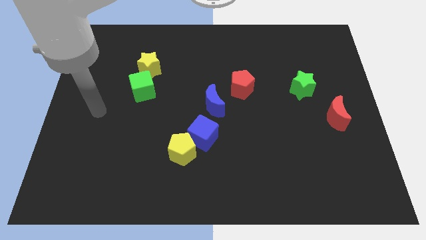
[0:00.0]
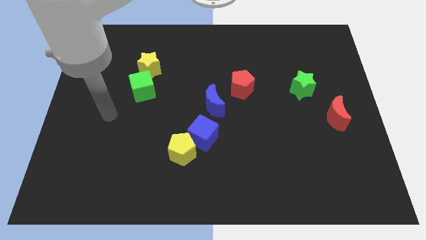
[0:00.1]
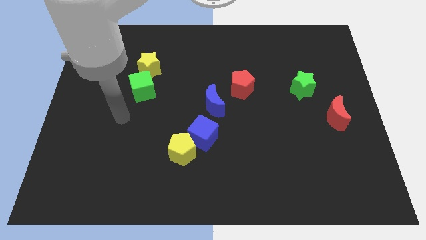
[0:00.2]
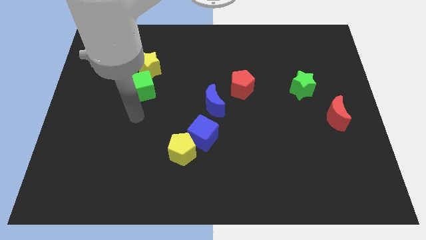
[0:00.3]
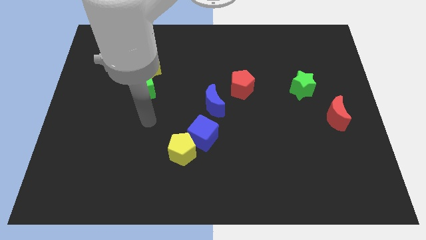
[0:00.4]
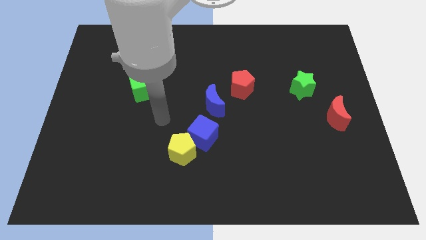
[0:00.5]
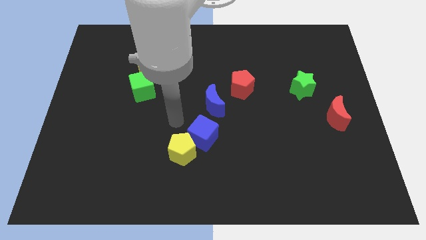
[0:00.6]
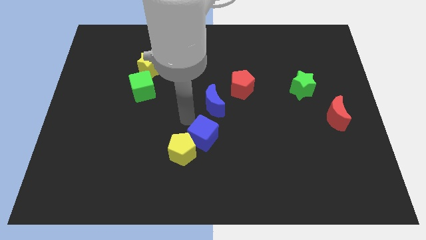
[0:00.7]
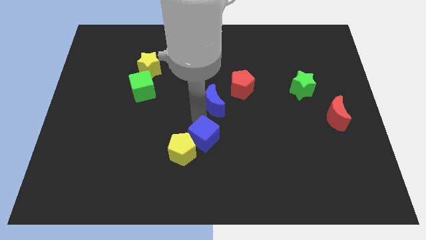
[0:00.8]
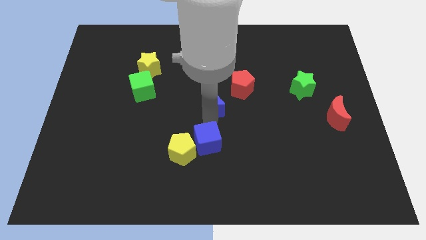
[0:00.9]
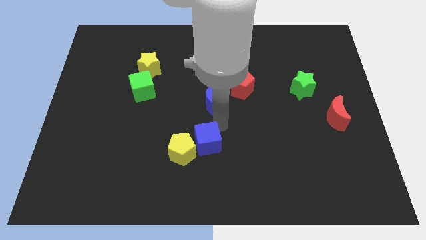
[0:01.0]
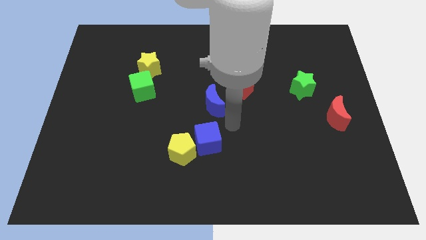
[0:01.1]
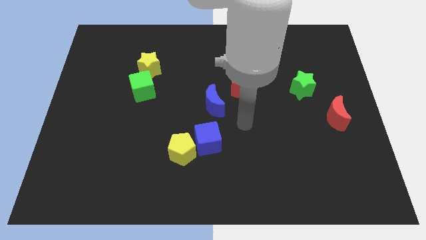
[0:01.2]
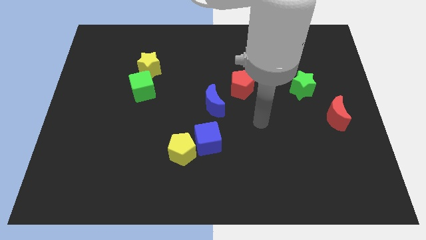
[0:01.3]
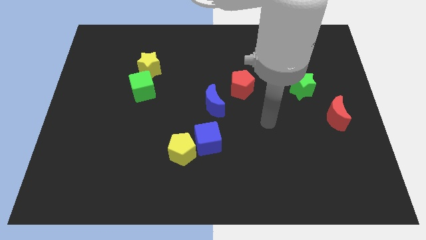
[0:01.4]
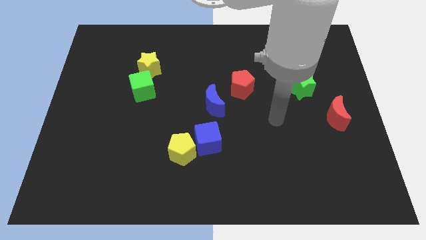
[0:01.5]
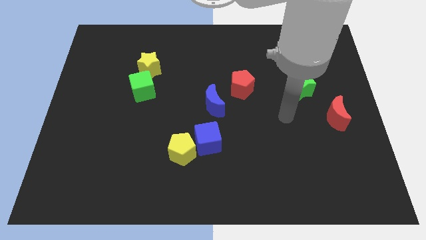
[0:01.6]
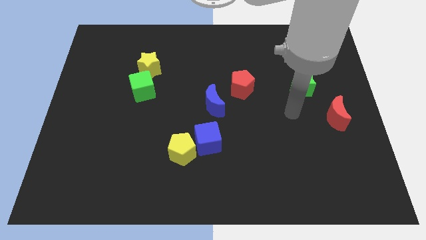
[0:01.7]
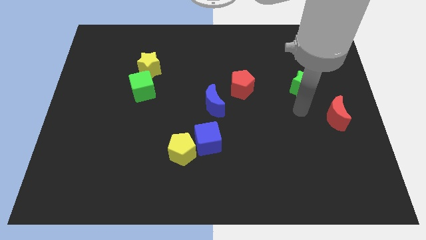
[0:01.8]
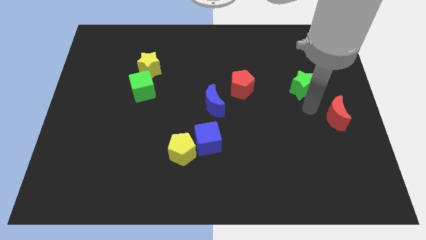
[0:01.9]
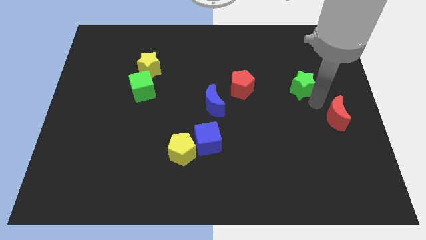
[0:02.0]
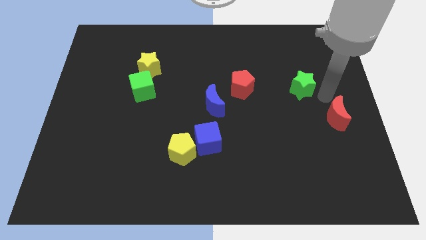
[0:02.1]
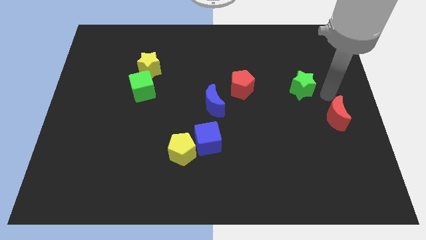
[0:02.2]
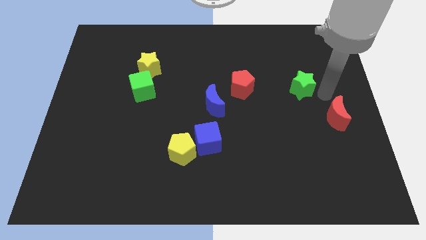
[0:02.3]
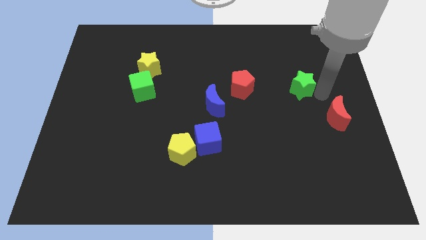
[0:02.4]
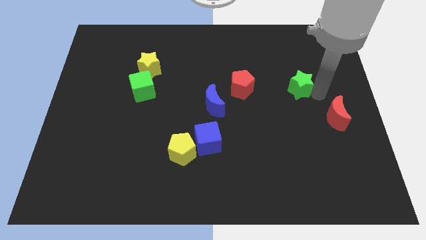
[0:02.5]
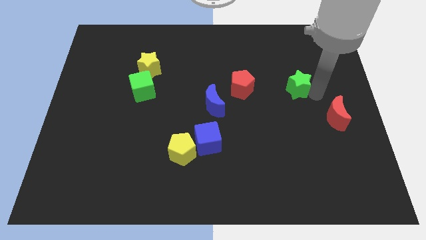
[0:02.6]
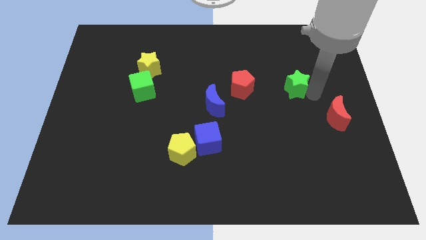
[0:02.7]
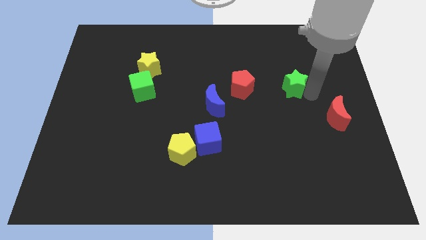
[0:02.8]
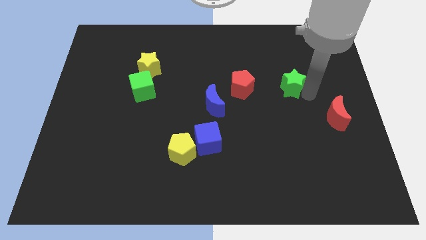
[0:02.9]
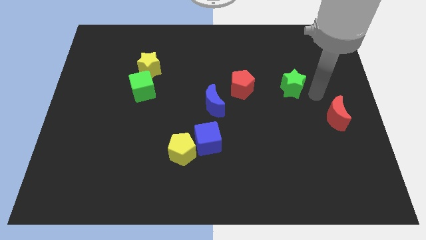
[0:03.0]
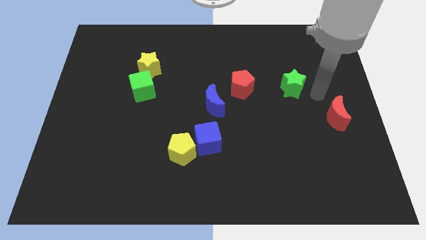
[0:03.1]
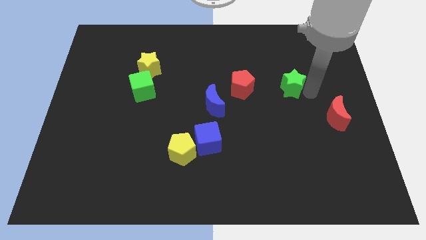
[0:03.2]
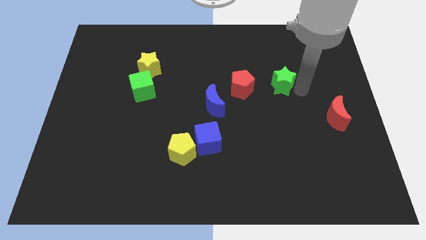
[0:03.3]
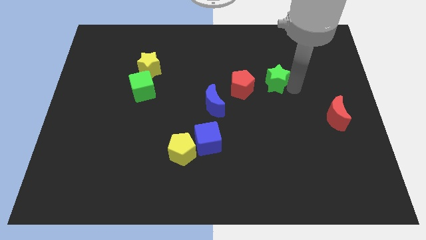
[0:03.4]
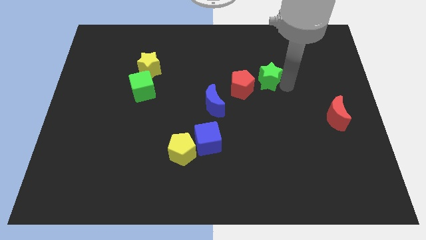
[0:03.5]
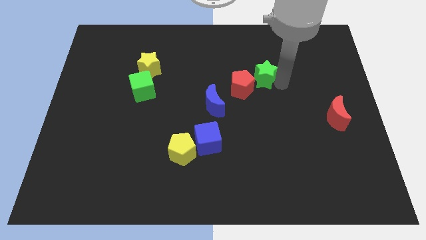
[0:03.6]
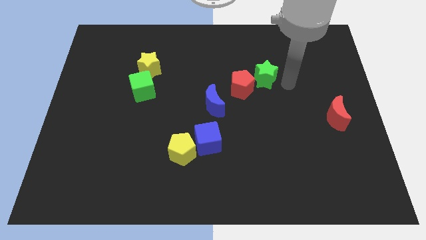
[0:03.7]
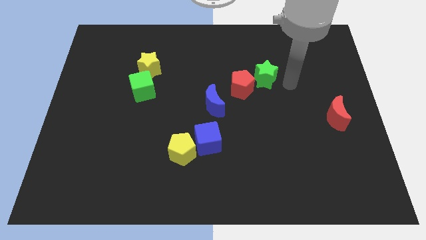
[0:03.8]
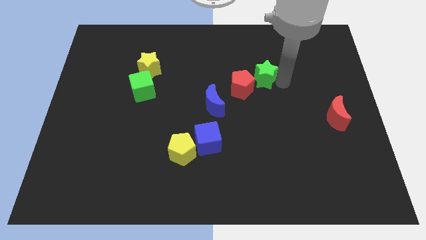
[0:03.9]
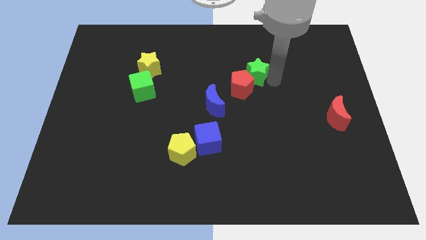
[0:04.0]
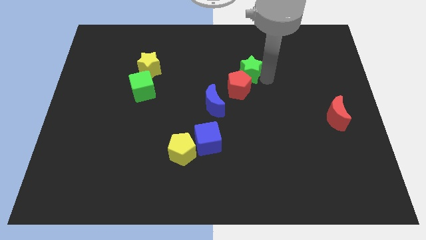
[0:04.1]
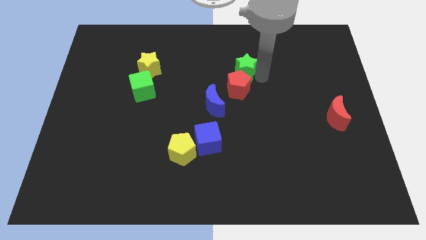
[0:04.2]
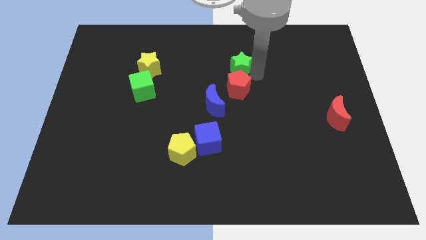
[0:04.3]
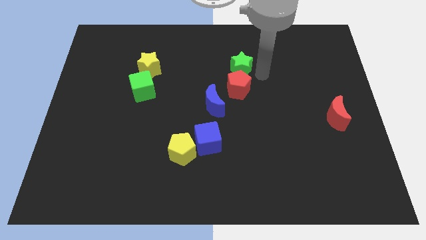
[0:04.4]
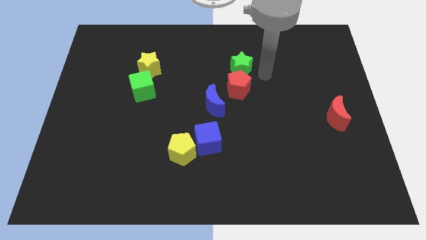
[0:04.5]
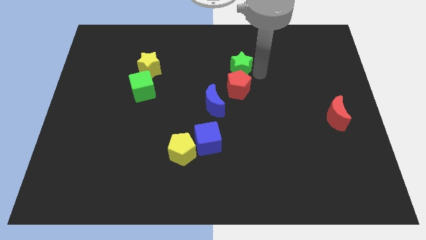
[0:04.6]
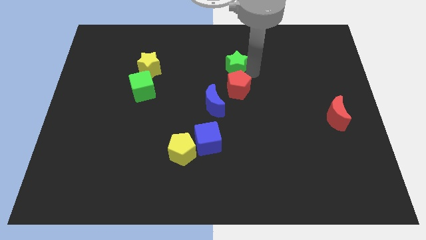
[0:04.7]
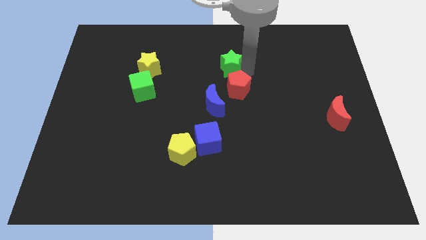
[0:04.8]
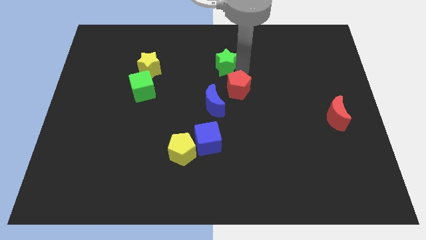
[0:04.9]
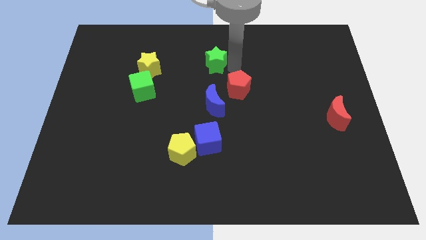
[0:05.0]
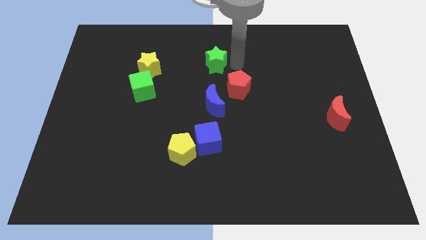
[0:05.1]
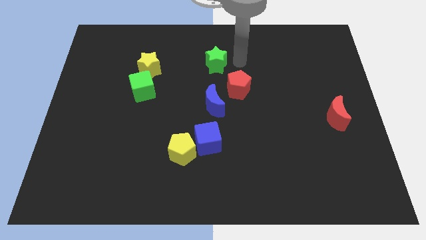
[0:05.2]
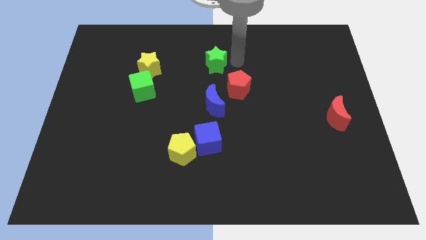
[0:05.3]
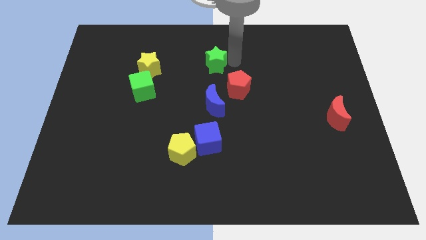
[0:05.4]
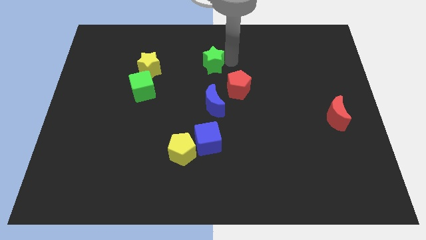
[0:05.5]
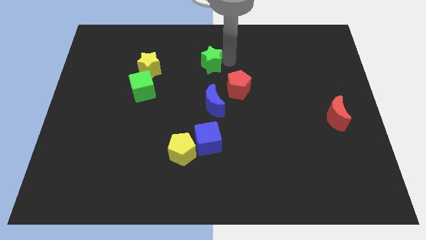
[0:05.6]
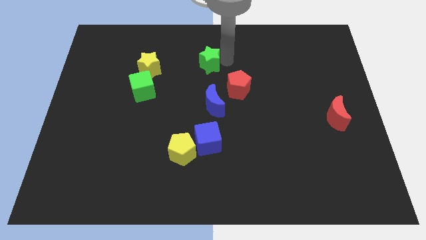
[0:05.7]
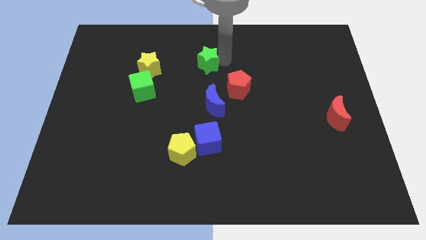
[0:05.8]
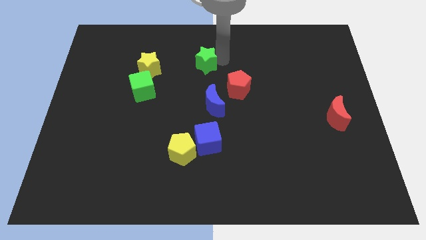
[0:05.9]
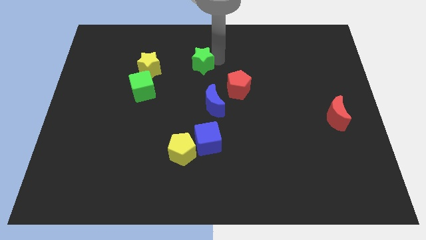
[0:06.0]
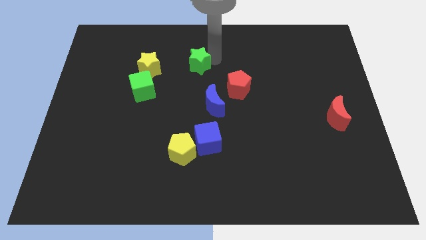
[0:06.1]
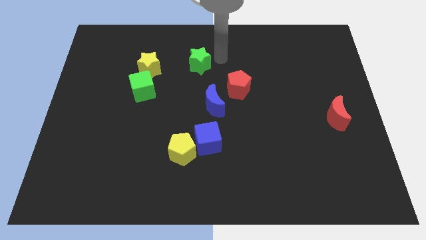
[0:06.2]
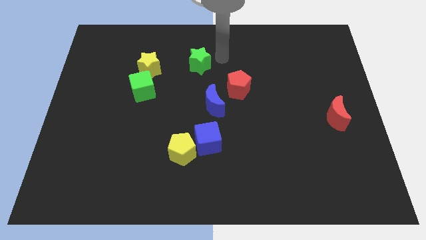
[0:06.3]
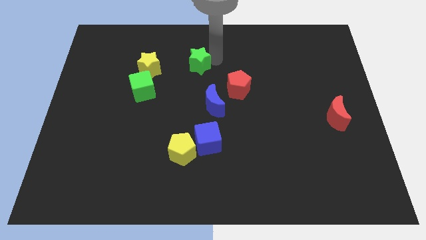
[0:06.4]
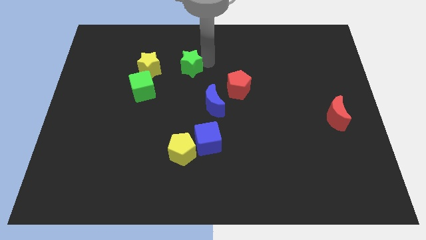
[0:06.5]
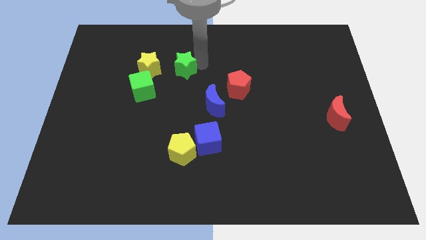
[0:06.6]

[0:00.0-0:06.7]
push the green star to the top right side of the green cube

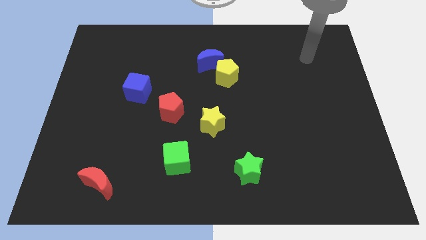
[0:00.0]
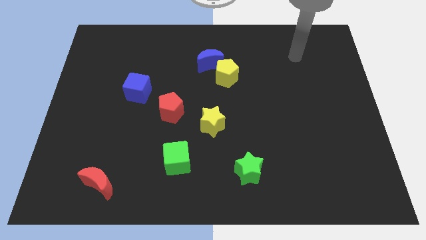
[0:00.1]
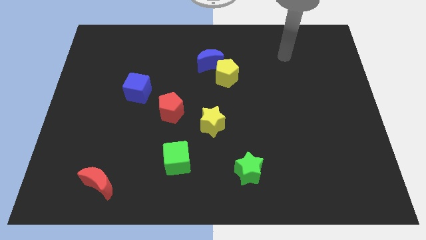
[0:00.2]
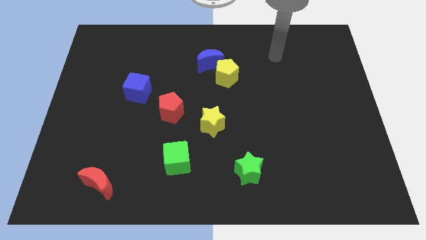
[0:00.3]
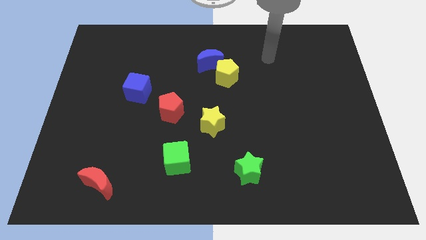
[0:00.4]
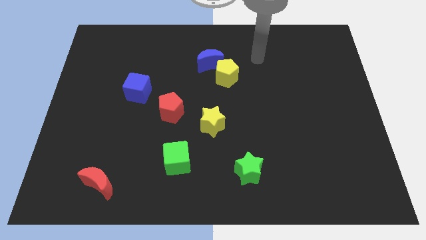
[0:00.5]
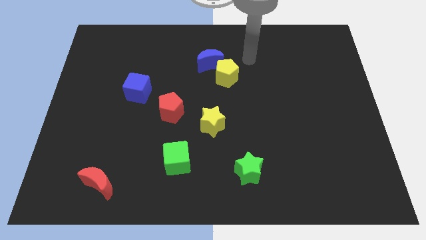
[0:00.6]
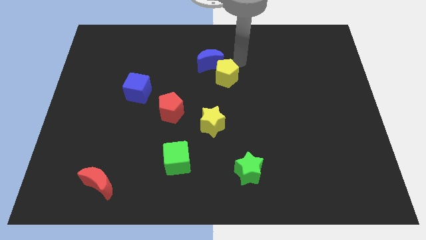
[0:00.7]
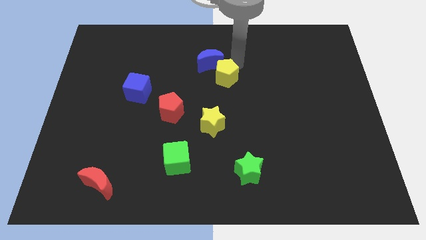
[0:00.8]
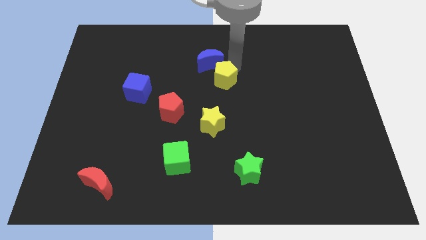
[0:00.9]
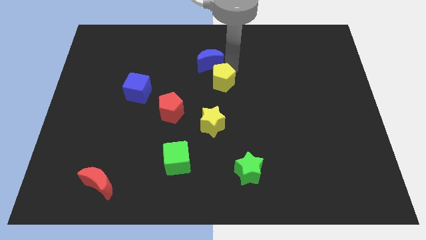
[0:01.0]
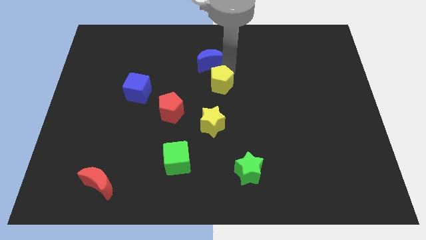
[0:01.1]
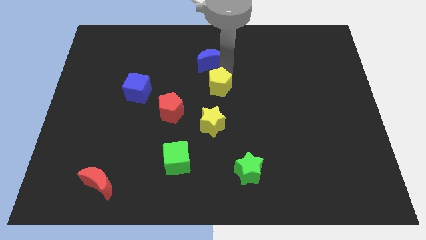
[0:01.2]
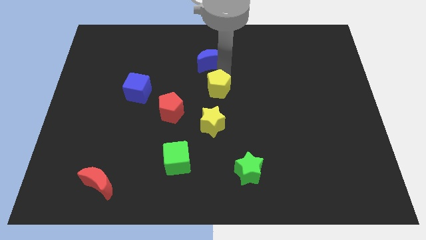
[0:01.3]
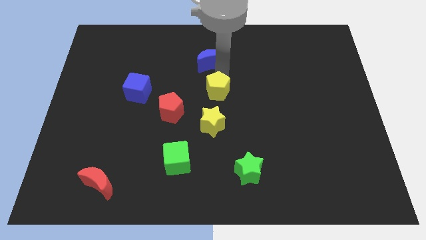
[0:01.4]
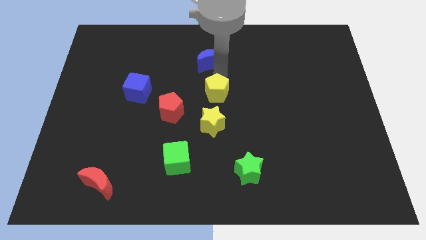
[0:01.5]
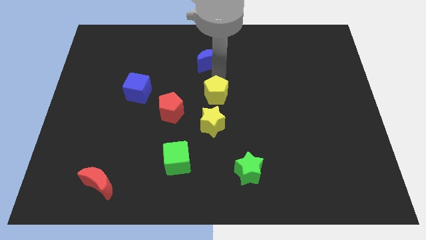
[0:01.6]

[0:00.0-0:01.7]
put the yellow pentagon right of the red pentagon
